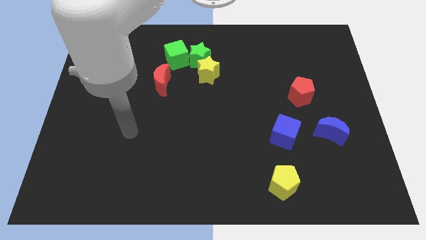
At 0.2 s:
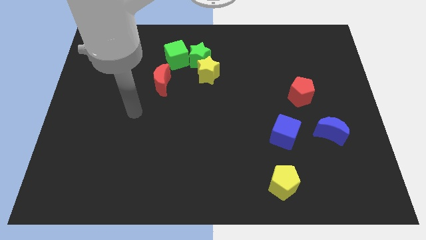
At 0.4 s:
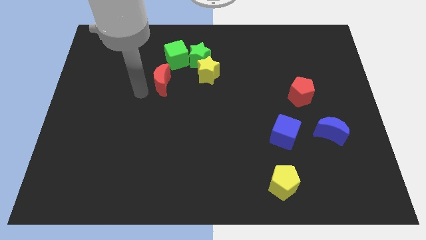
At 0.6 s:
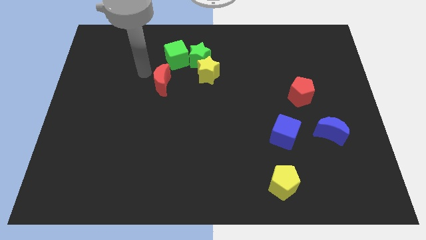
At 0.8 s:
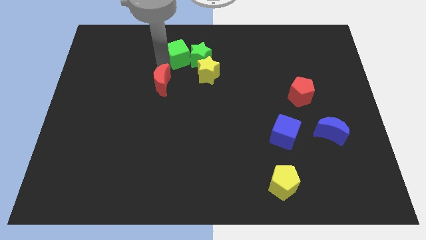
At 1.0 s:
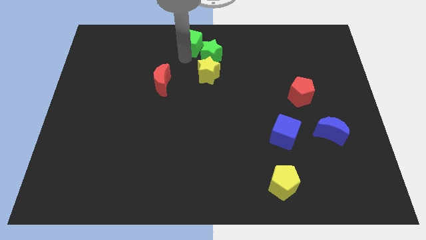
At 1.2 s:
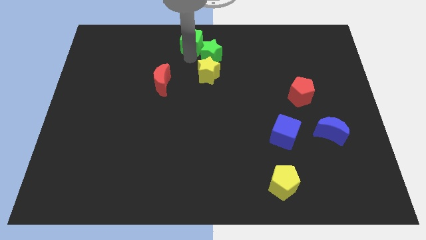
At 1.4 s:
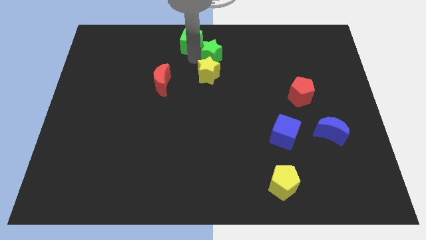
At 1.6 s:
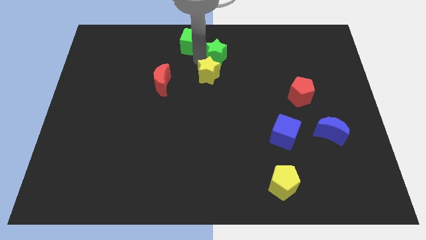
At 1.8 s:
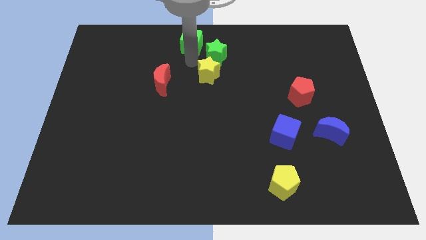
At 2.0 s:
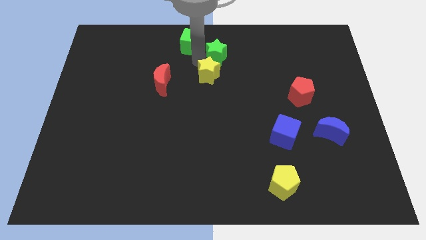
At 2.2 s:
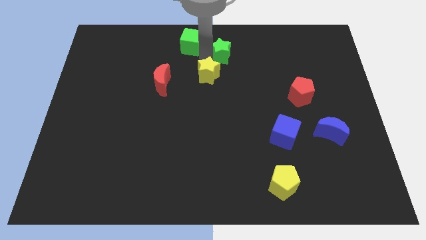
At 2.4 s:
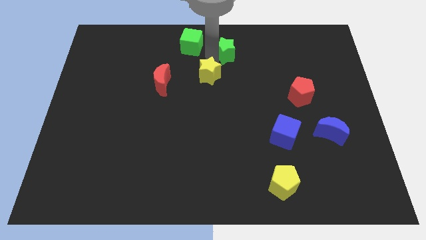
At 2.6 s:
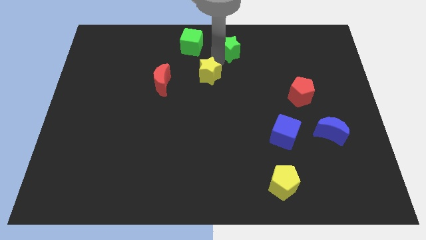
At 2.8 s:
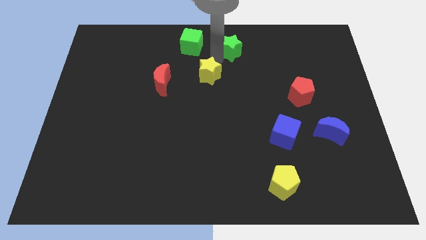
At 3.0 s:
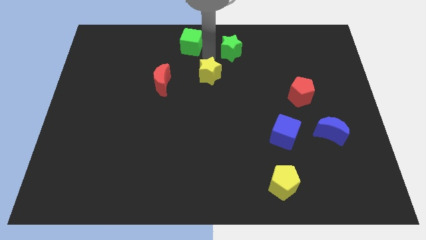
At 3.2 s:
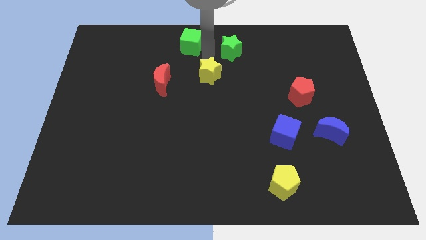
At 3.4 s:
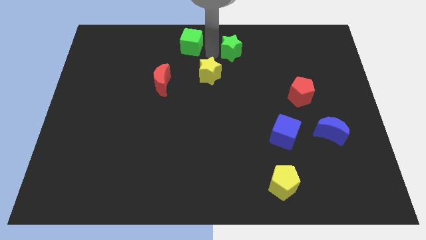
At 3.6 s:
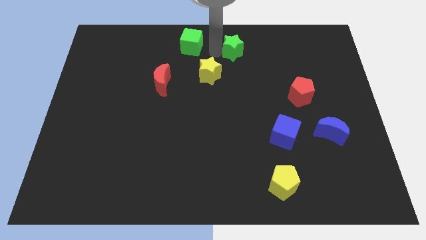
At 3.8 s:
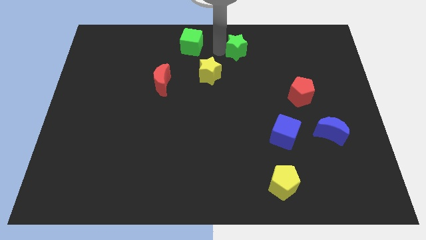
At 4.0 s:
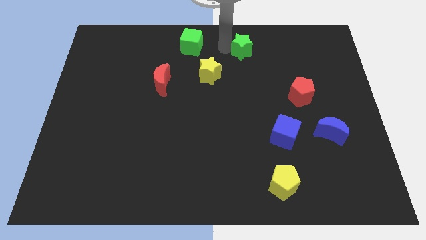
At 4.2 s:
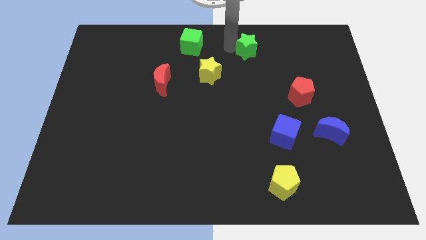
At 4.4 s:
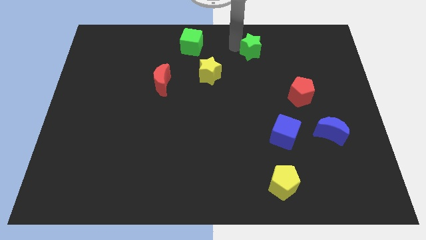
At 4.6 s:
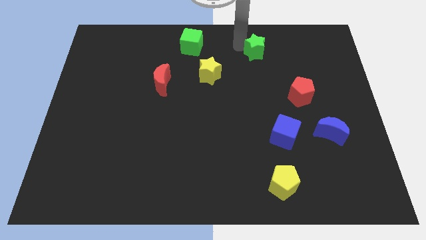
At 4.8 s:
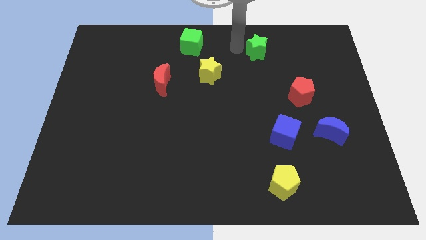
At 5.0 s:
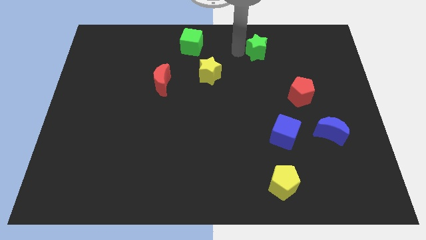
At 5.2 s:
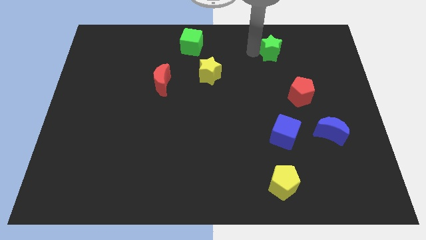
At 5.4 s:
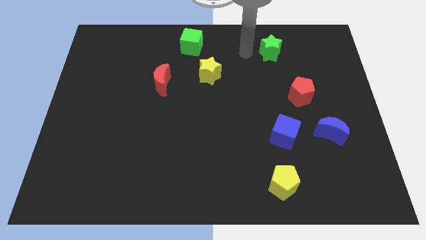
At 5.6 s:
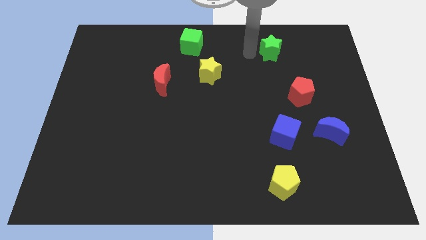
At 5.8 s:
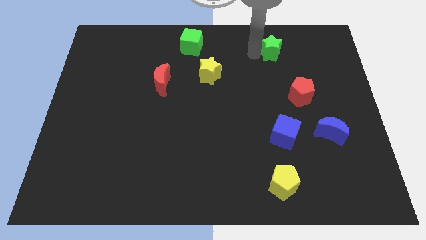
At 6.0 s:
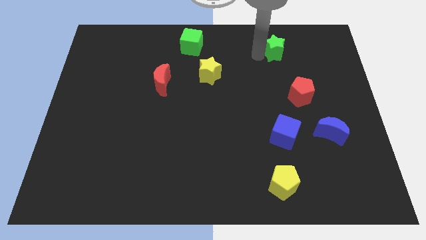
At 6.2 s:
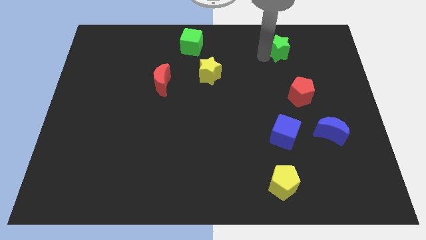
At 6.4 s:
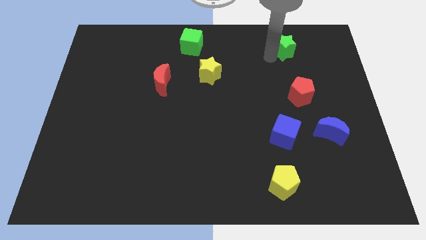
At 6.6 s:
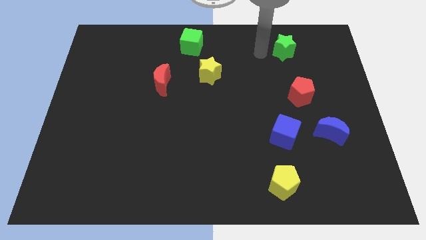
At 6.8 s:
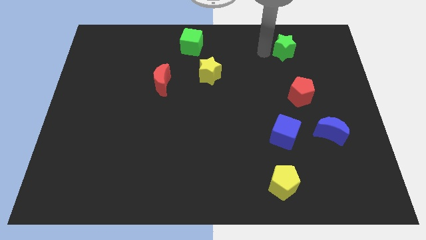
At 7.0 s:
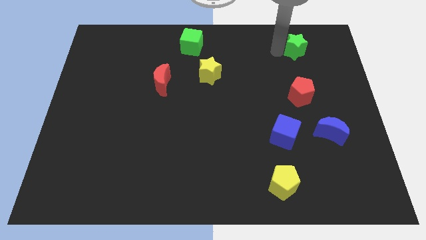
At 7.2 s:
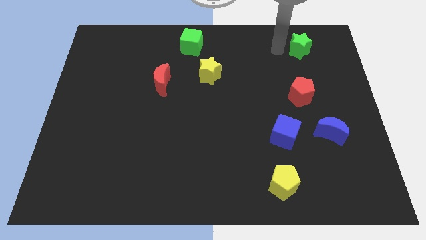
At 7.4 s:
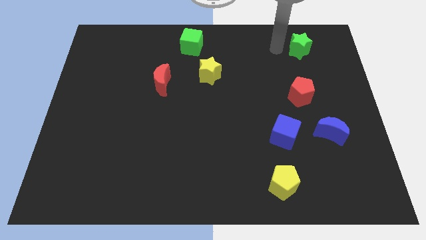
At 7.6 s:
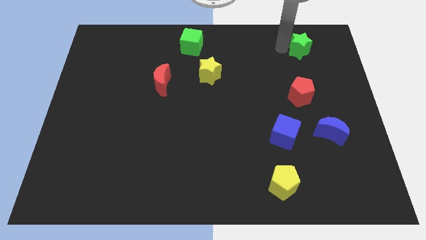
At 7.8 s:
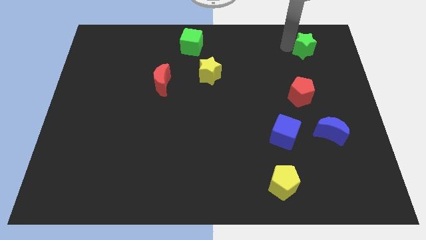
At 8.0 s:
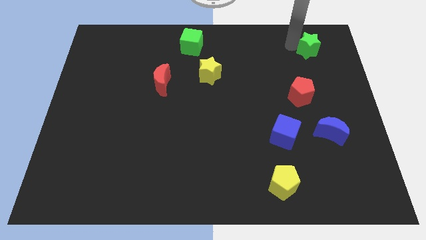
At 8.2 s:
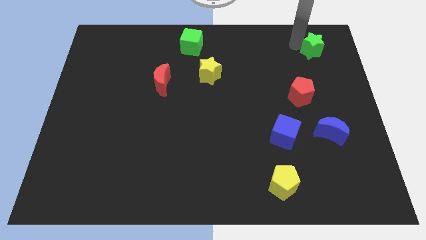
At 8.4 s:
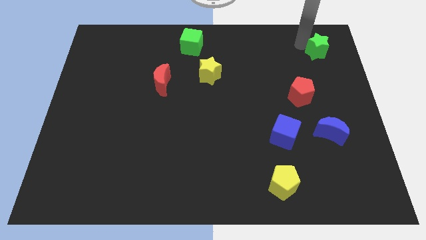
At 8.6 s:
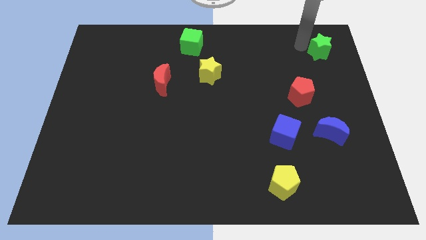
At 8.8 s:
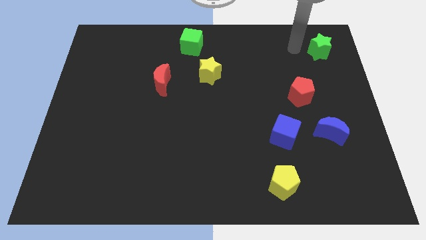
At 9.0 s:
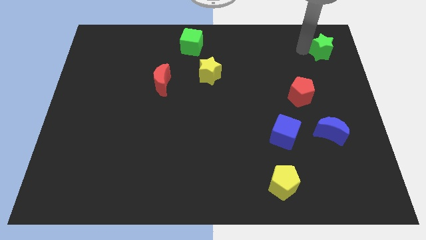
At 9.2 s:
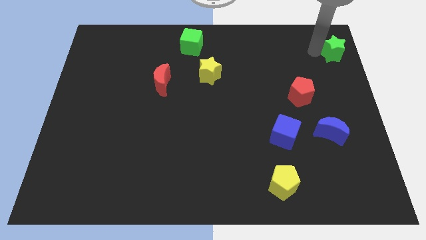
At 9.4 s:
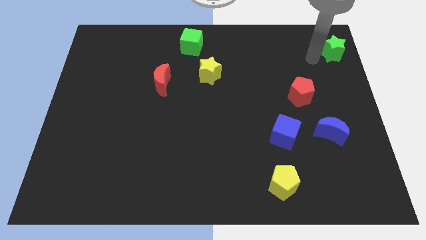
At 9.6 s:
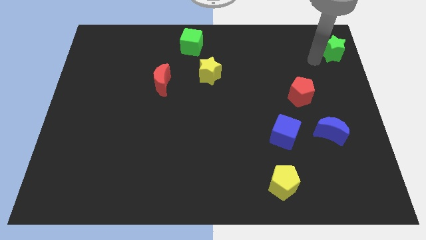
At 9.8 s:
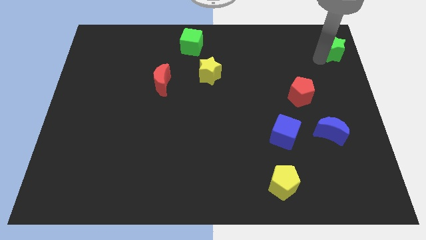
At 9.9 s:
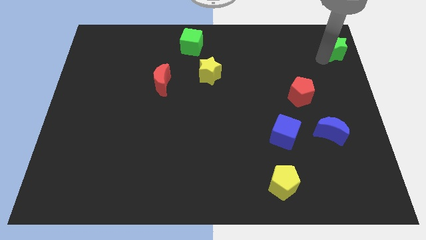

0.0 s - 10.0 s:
put the green star to the top right corner

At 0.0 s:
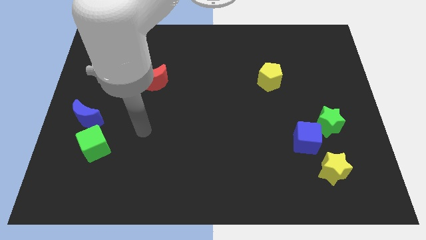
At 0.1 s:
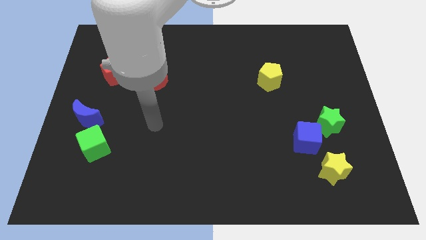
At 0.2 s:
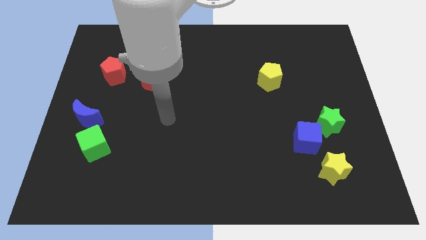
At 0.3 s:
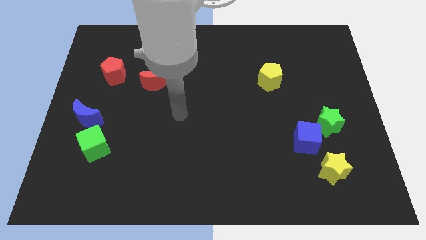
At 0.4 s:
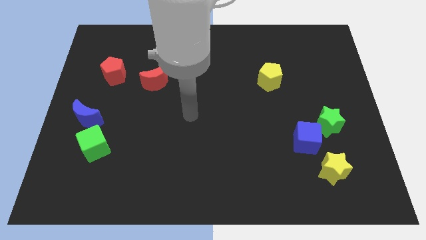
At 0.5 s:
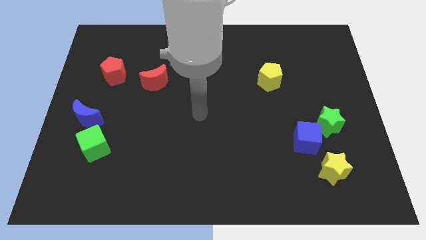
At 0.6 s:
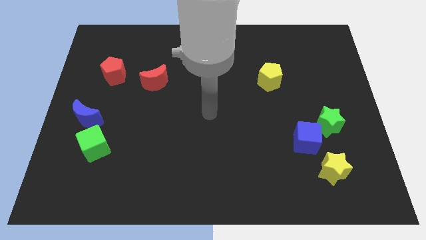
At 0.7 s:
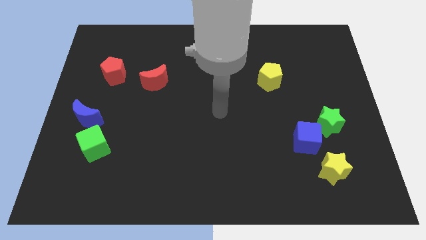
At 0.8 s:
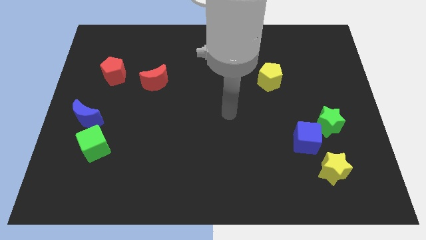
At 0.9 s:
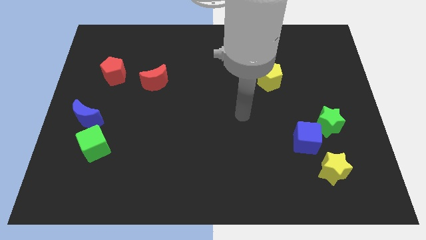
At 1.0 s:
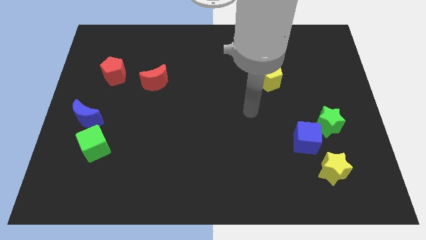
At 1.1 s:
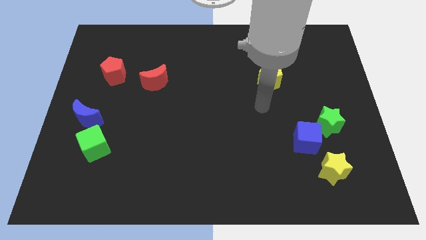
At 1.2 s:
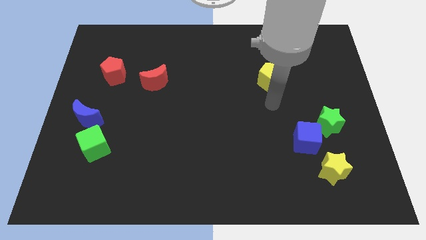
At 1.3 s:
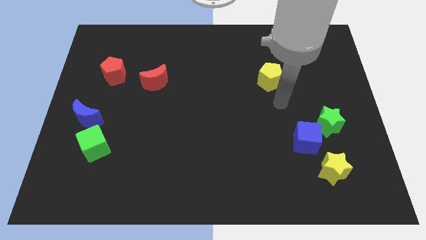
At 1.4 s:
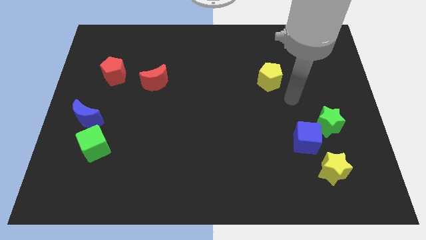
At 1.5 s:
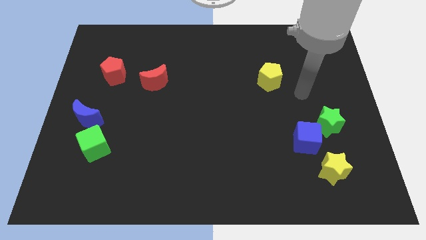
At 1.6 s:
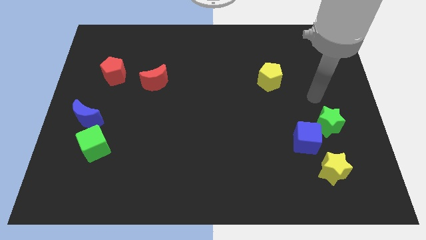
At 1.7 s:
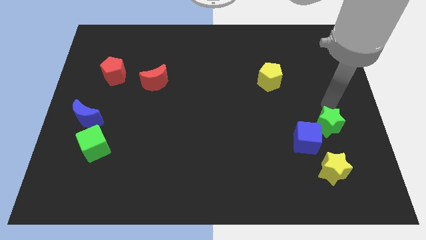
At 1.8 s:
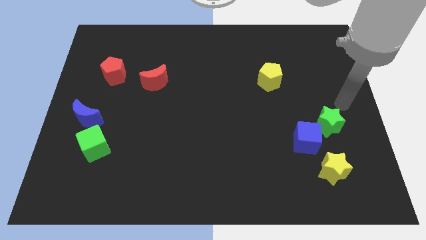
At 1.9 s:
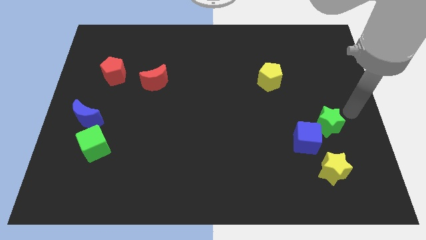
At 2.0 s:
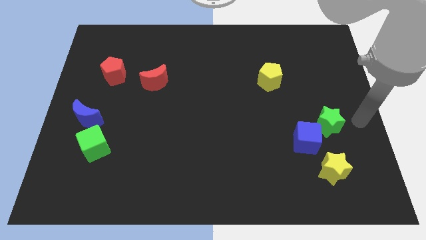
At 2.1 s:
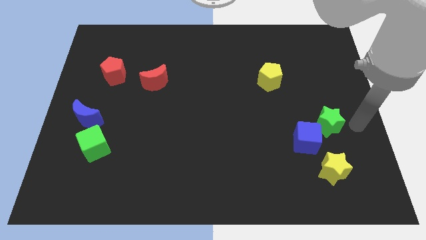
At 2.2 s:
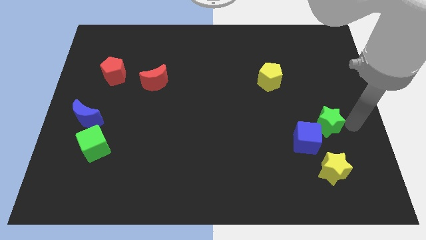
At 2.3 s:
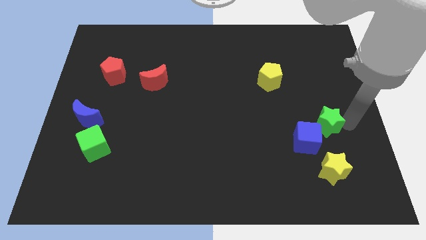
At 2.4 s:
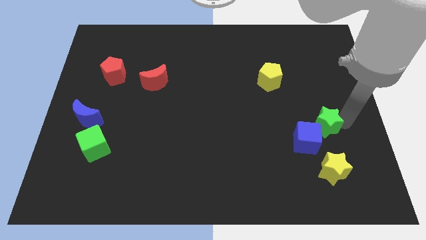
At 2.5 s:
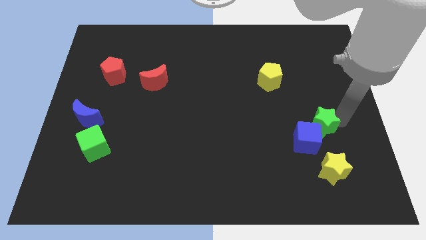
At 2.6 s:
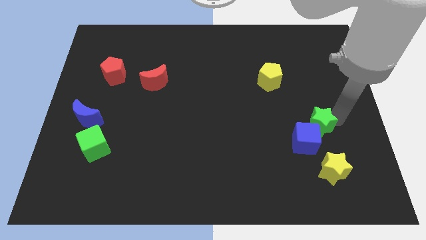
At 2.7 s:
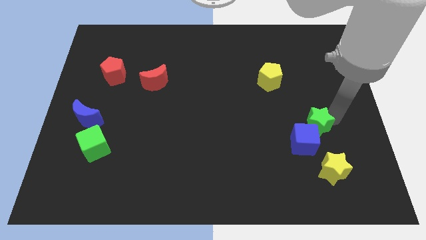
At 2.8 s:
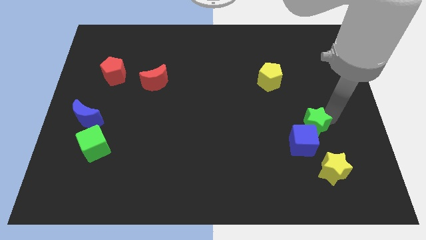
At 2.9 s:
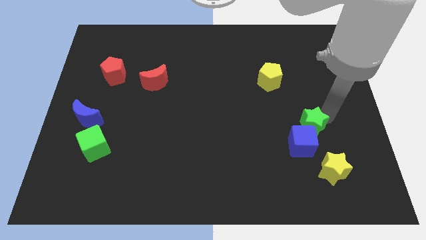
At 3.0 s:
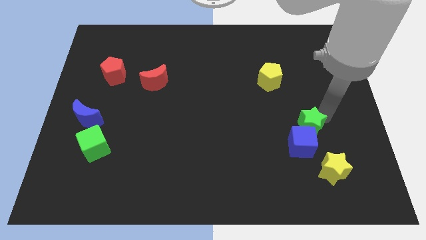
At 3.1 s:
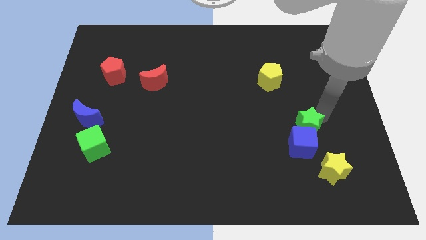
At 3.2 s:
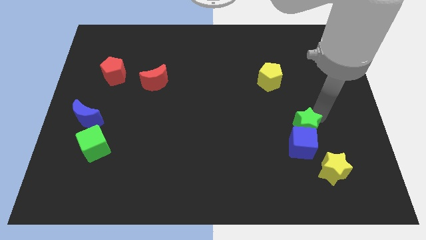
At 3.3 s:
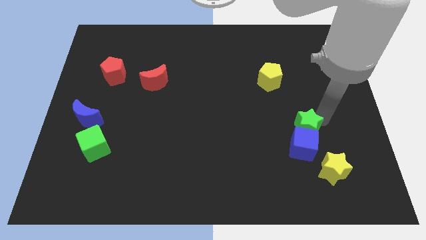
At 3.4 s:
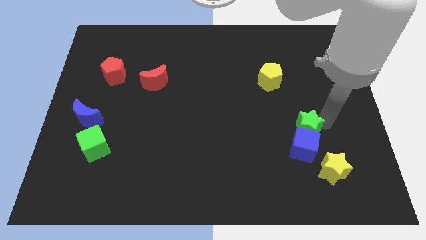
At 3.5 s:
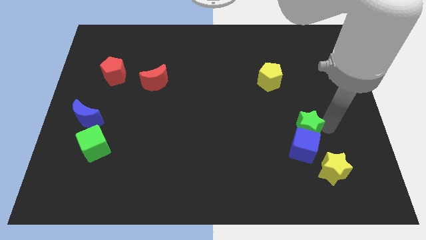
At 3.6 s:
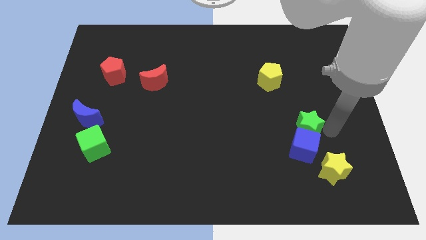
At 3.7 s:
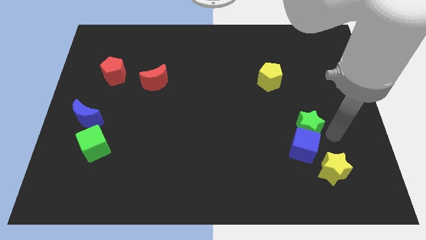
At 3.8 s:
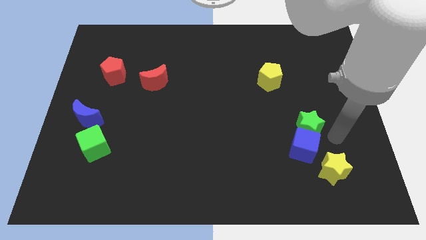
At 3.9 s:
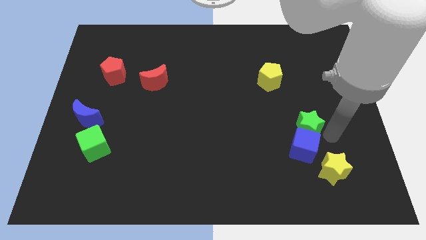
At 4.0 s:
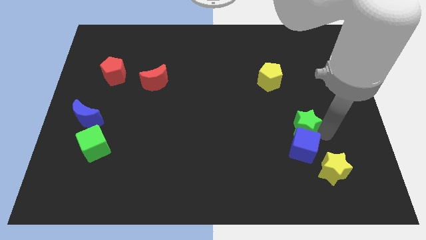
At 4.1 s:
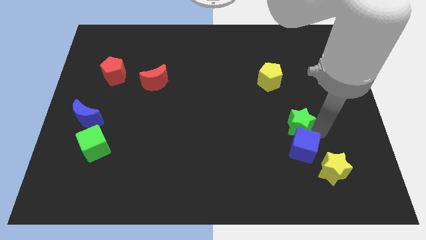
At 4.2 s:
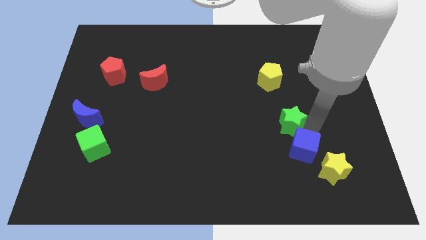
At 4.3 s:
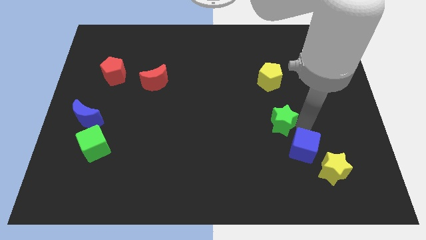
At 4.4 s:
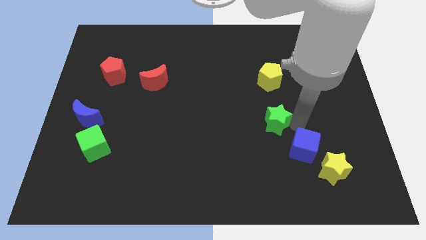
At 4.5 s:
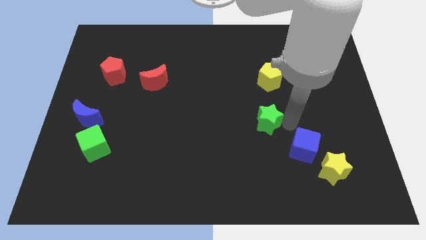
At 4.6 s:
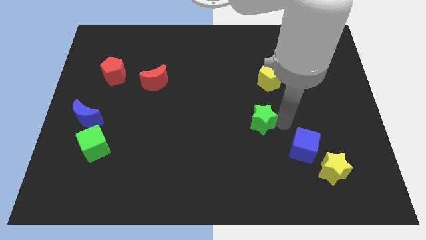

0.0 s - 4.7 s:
move the green star to the middle
